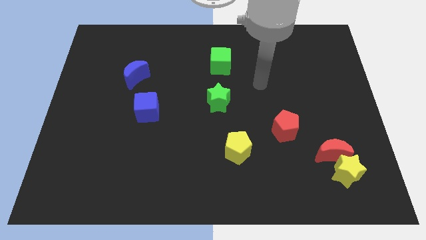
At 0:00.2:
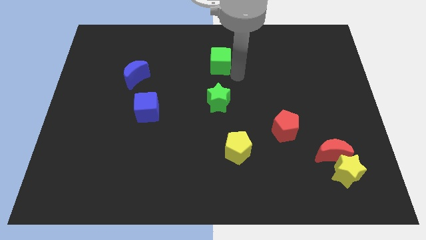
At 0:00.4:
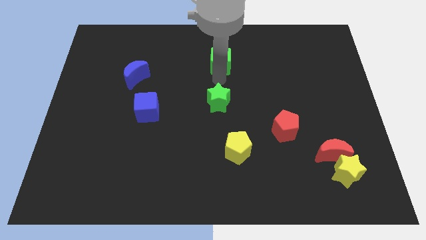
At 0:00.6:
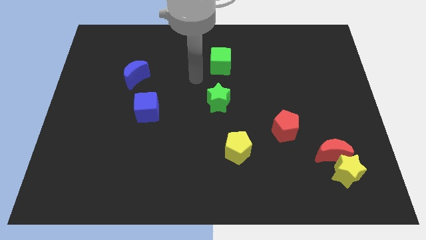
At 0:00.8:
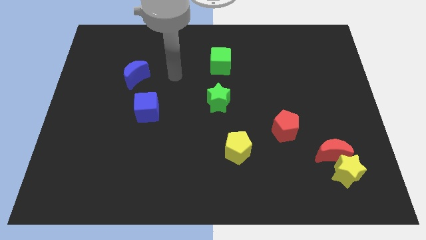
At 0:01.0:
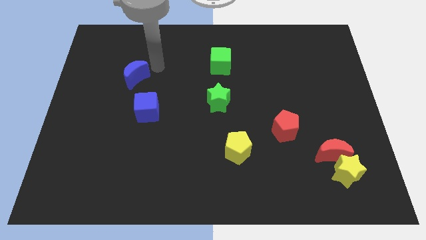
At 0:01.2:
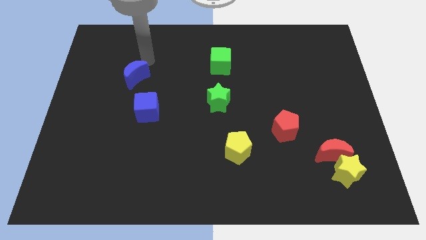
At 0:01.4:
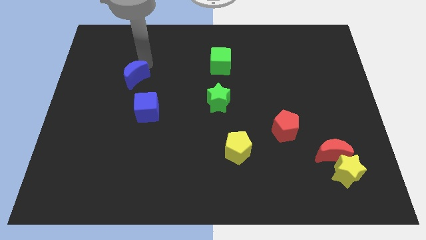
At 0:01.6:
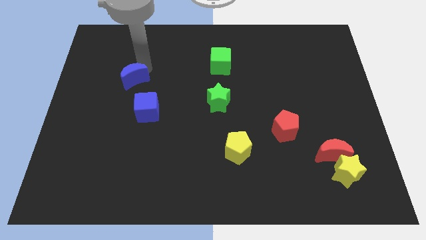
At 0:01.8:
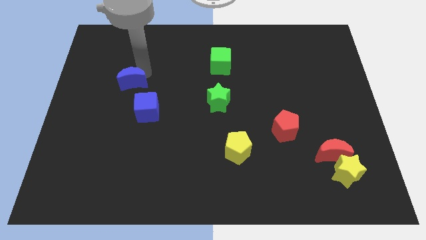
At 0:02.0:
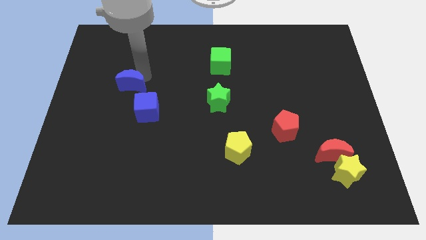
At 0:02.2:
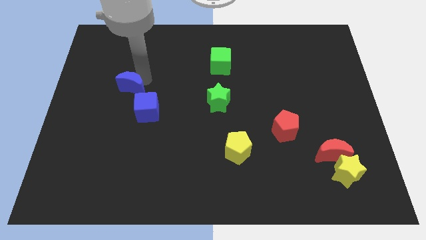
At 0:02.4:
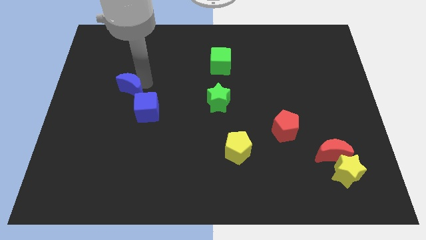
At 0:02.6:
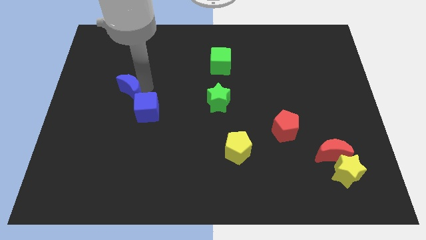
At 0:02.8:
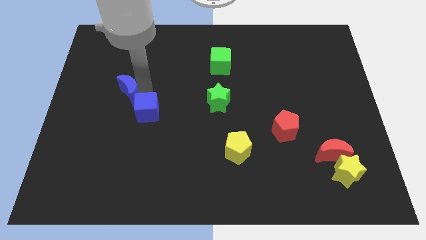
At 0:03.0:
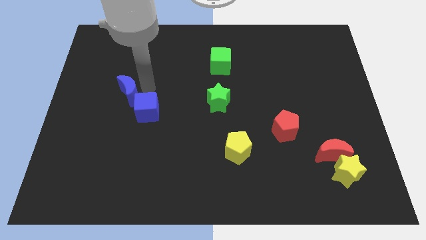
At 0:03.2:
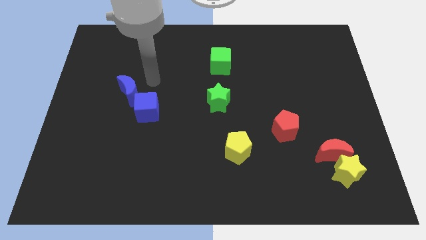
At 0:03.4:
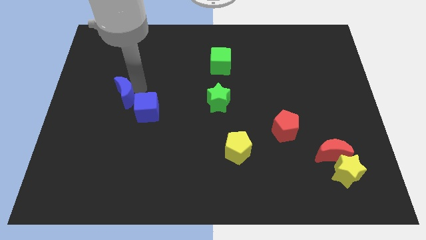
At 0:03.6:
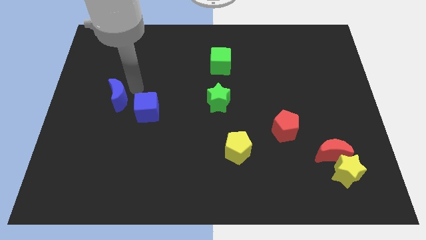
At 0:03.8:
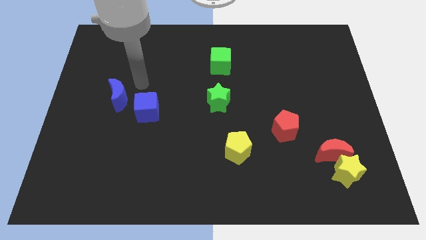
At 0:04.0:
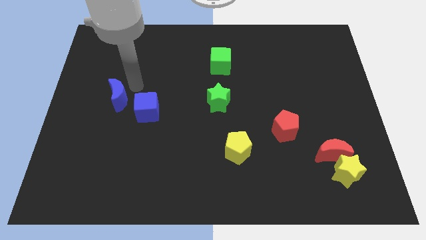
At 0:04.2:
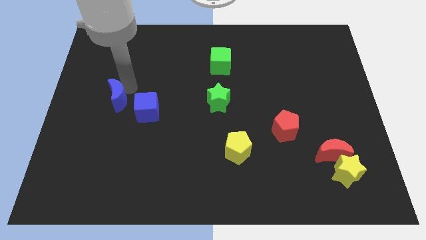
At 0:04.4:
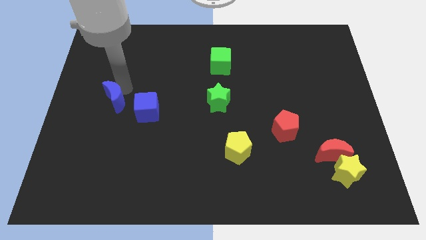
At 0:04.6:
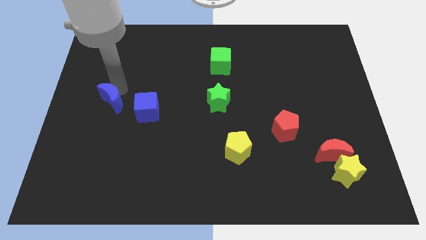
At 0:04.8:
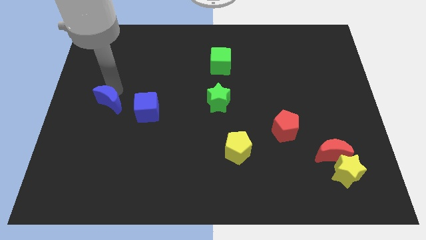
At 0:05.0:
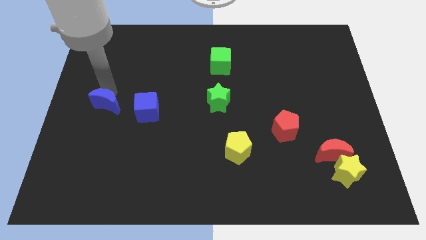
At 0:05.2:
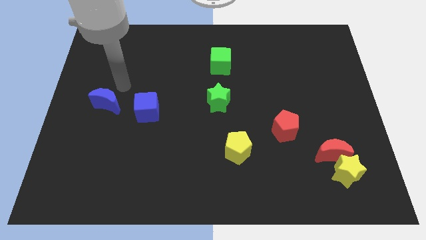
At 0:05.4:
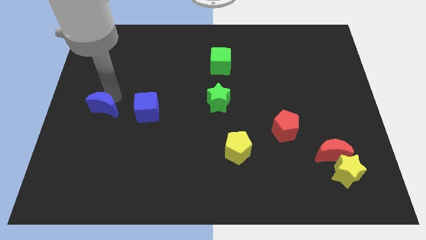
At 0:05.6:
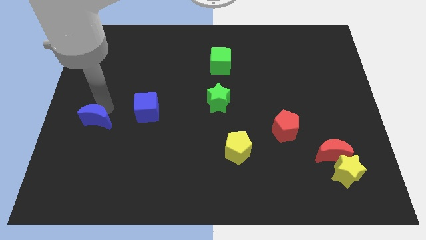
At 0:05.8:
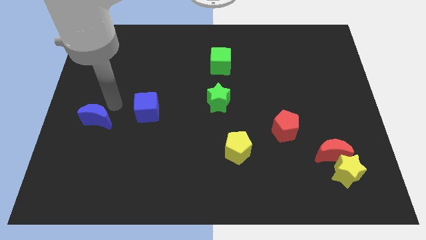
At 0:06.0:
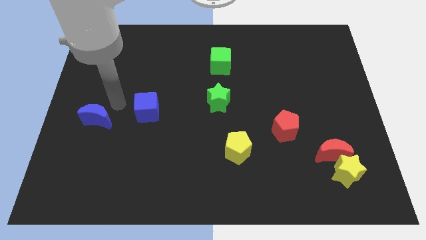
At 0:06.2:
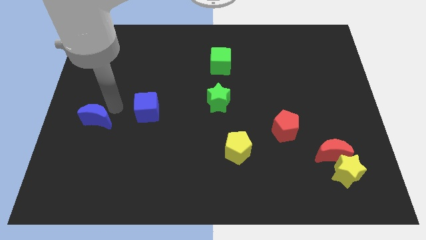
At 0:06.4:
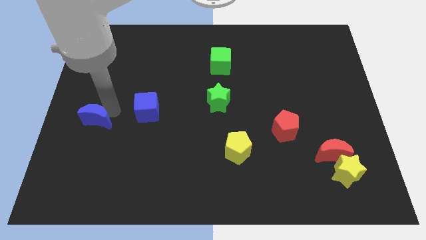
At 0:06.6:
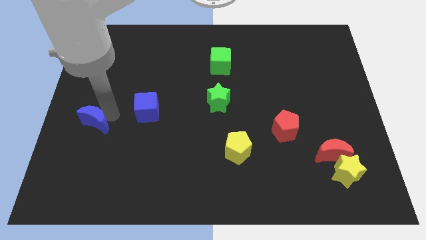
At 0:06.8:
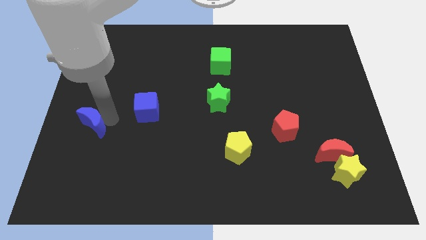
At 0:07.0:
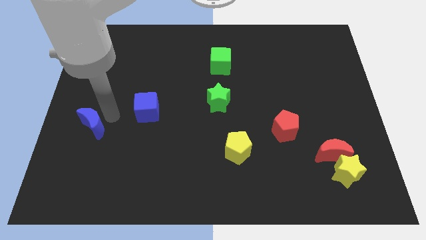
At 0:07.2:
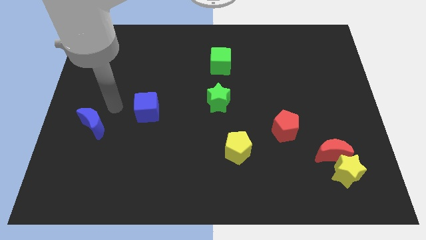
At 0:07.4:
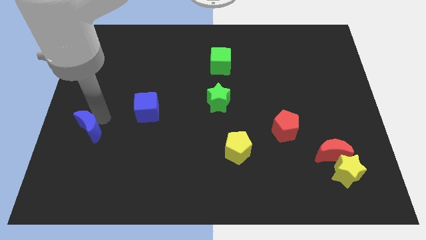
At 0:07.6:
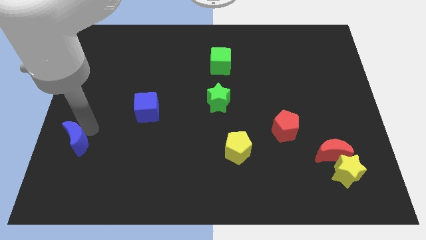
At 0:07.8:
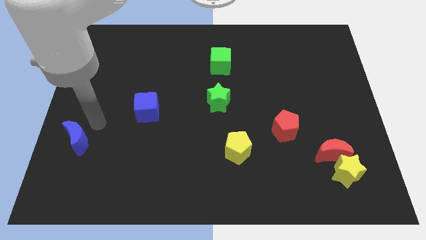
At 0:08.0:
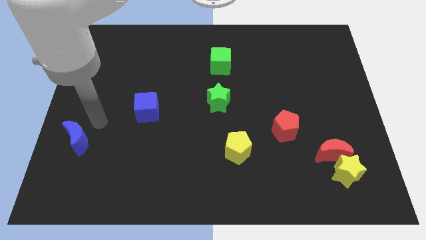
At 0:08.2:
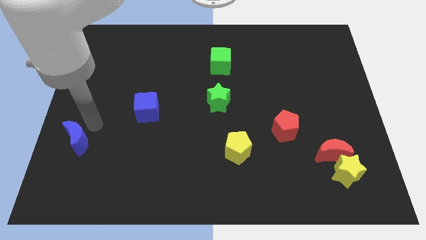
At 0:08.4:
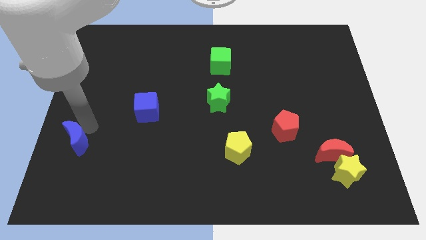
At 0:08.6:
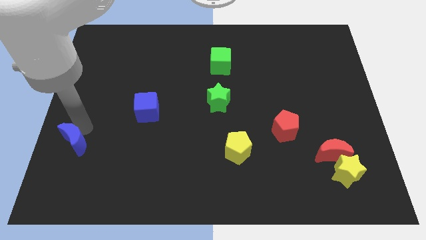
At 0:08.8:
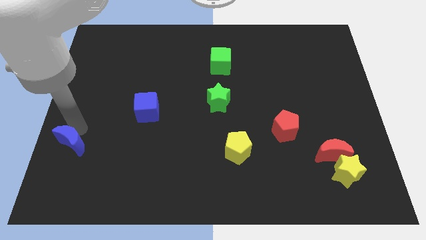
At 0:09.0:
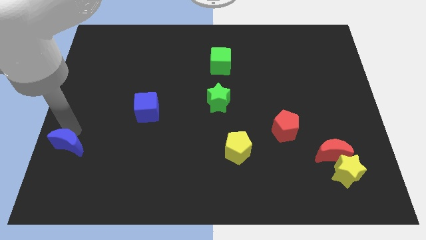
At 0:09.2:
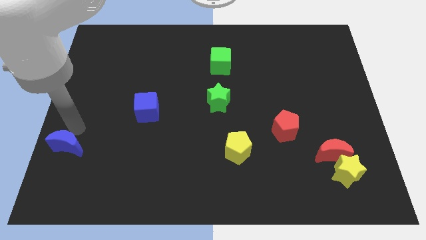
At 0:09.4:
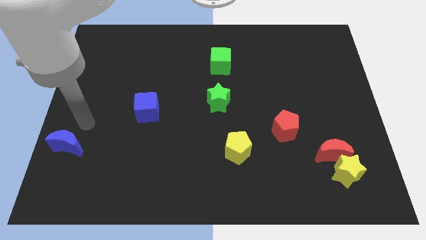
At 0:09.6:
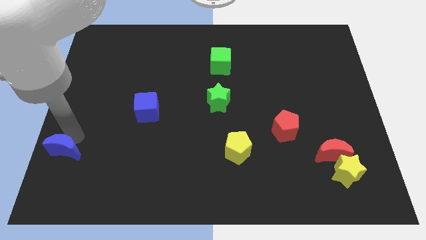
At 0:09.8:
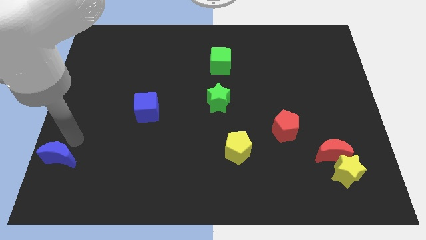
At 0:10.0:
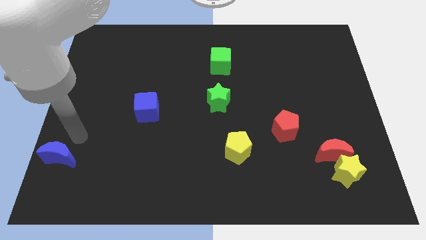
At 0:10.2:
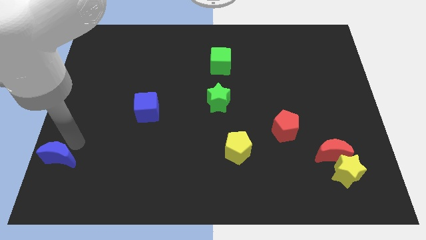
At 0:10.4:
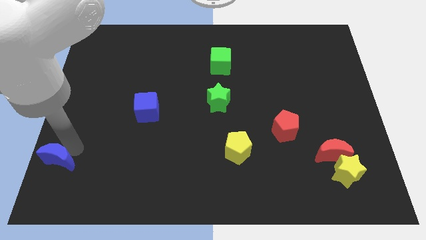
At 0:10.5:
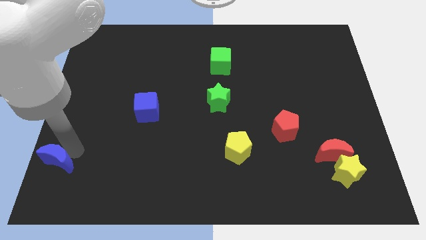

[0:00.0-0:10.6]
move the blue moon to the bottom left
